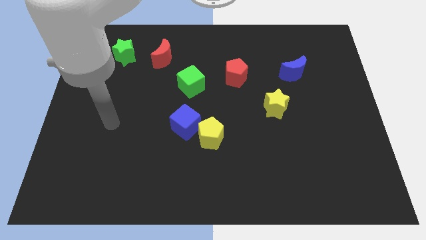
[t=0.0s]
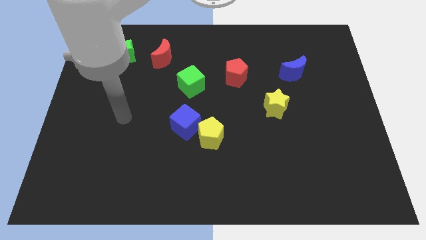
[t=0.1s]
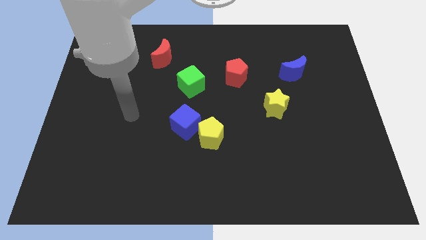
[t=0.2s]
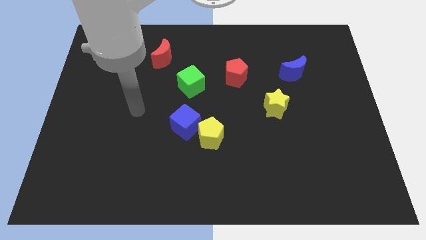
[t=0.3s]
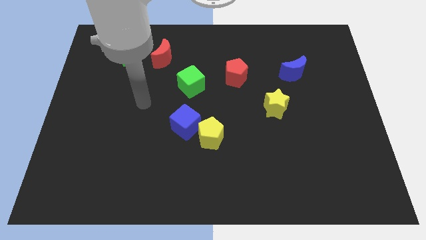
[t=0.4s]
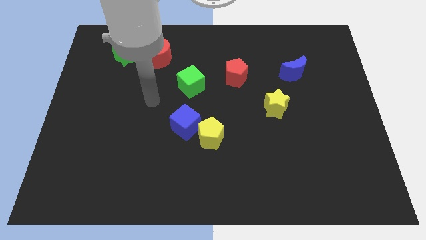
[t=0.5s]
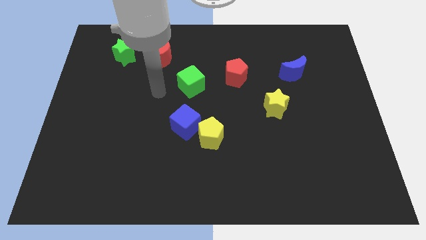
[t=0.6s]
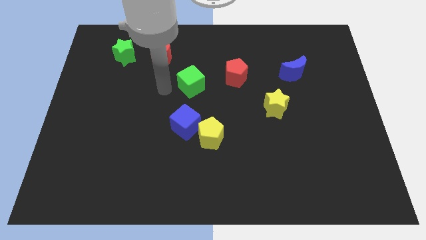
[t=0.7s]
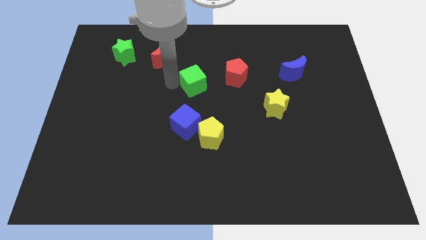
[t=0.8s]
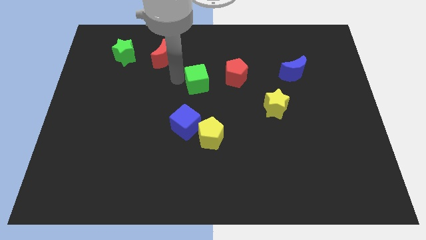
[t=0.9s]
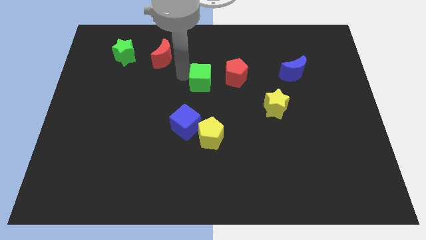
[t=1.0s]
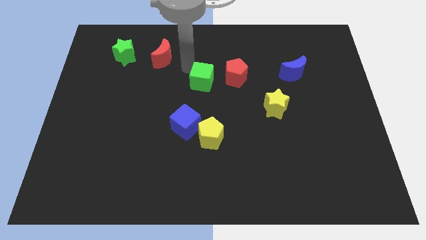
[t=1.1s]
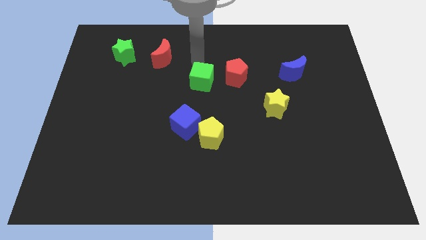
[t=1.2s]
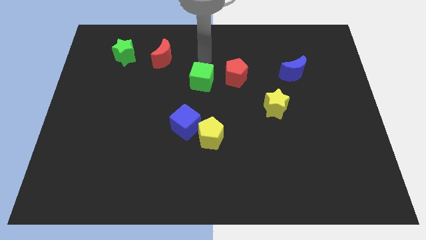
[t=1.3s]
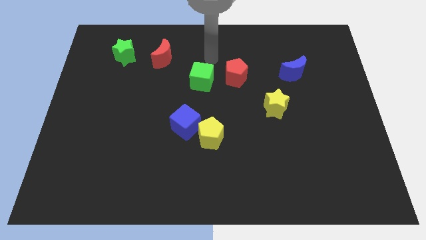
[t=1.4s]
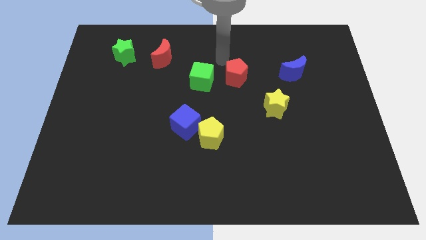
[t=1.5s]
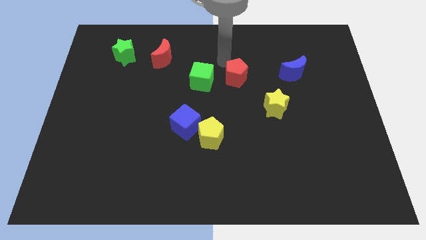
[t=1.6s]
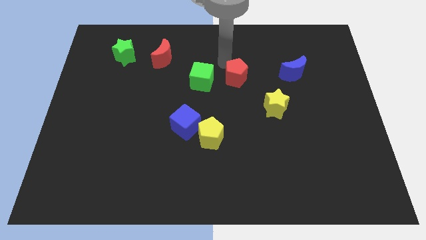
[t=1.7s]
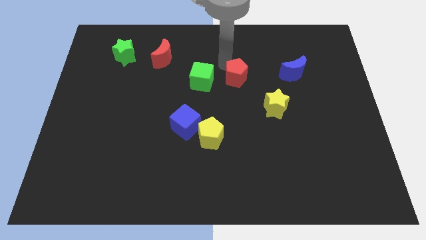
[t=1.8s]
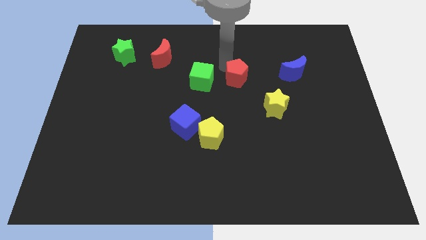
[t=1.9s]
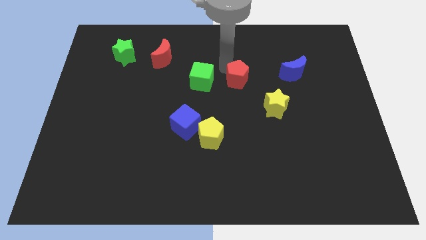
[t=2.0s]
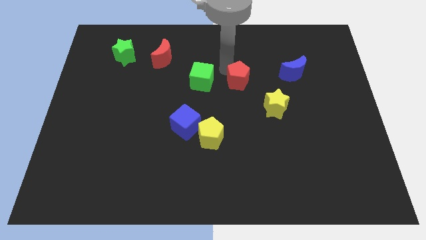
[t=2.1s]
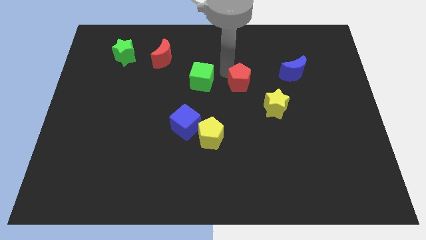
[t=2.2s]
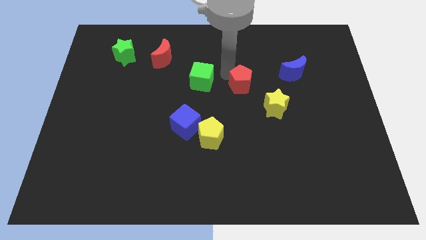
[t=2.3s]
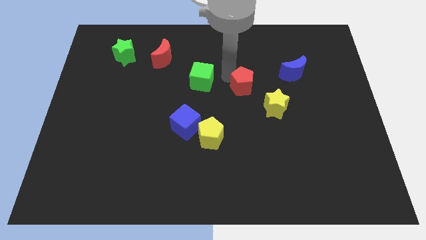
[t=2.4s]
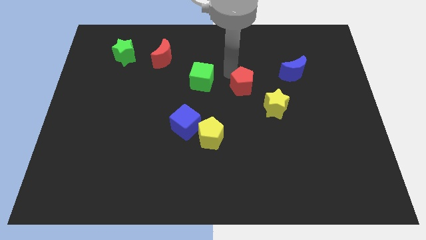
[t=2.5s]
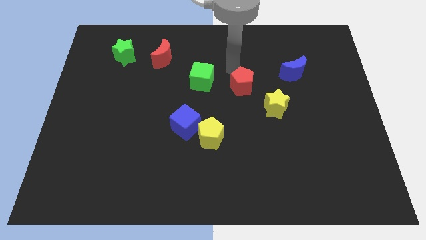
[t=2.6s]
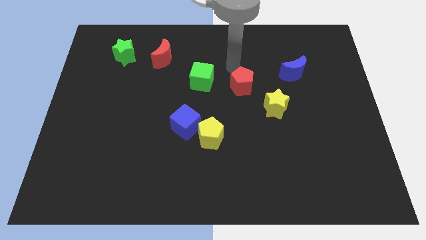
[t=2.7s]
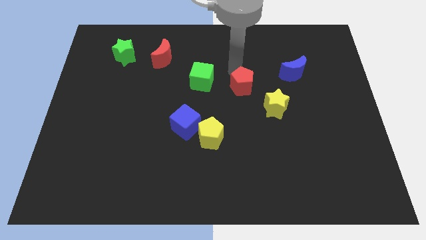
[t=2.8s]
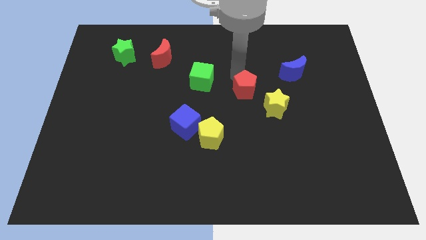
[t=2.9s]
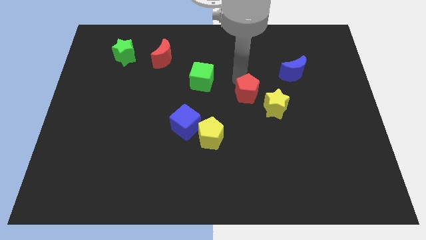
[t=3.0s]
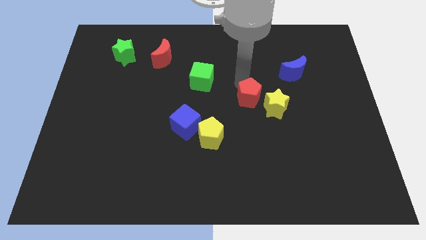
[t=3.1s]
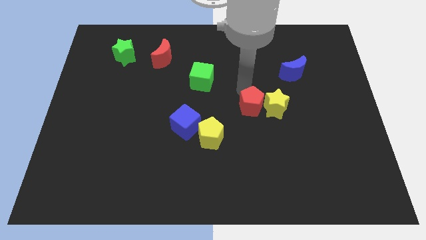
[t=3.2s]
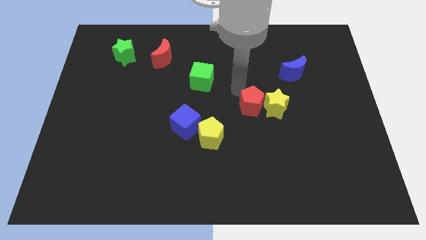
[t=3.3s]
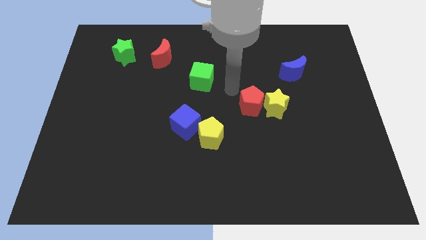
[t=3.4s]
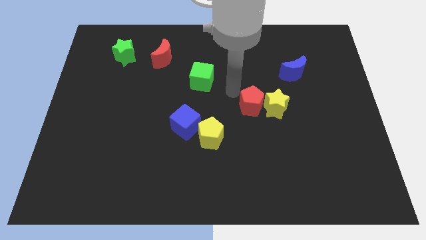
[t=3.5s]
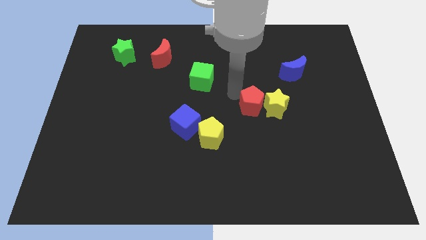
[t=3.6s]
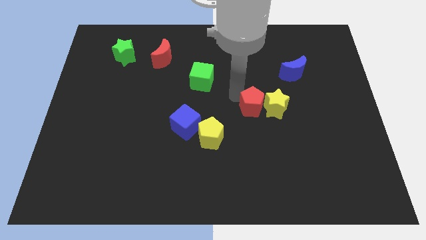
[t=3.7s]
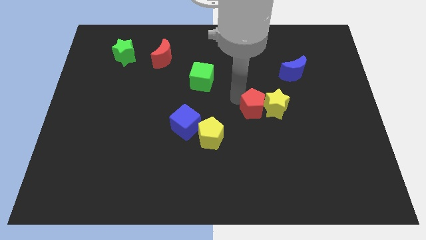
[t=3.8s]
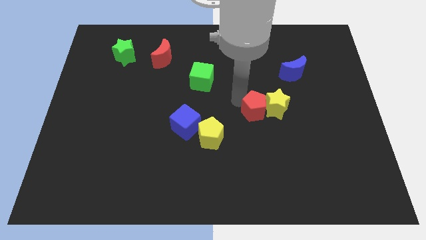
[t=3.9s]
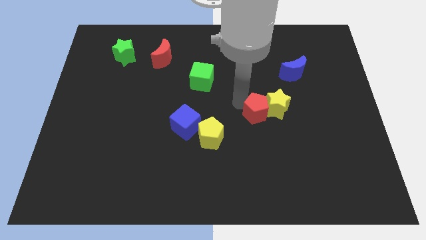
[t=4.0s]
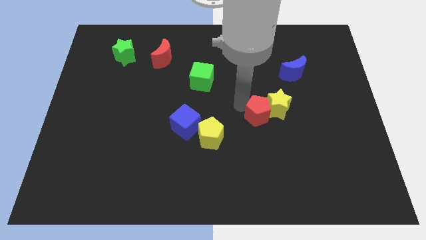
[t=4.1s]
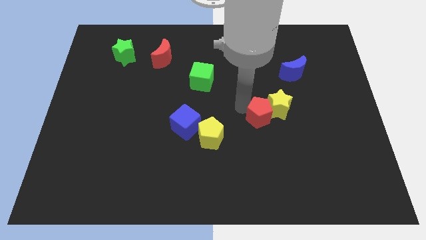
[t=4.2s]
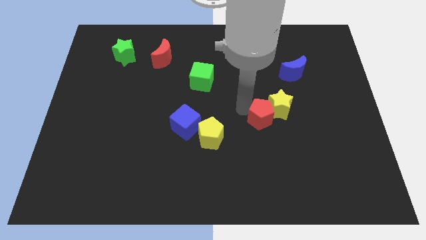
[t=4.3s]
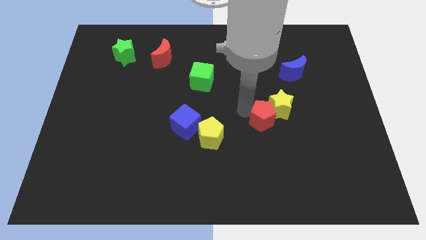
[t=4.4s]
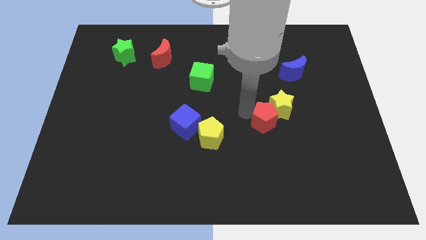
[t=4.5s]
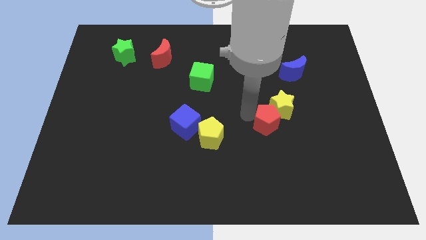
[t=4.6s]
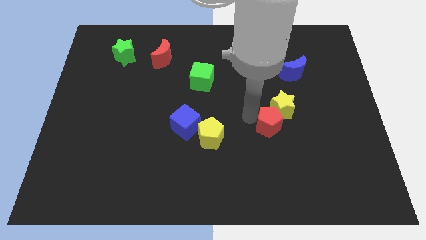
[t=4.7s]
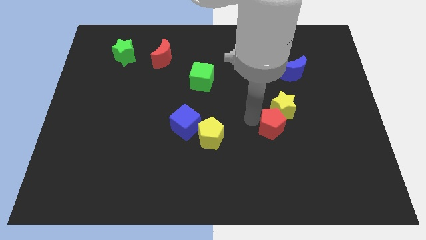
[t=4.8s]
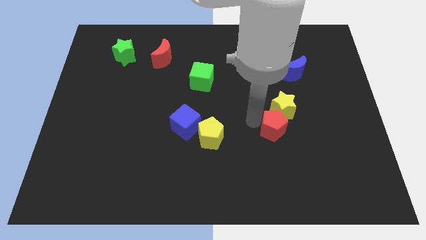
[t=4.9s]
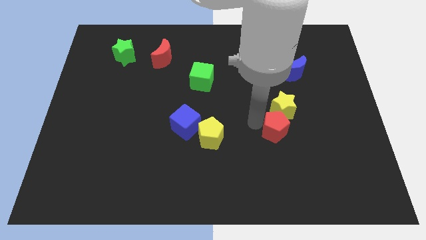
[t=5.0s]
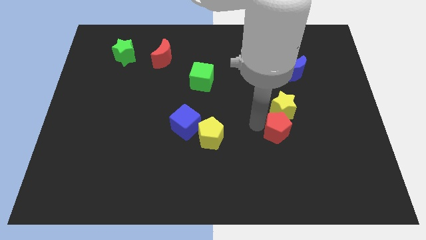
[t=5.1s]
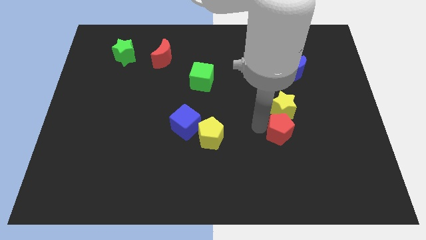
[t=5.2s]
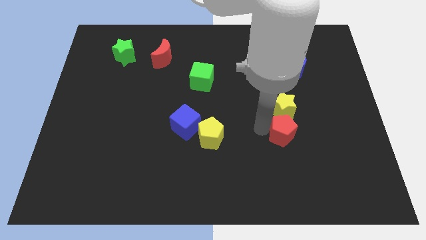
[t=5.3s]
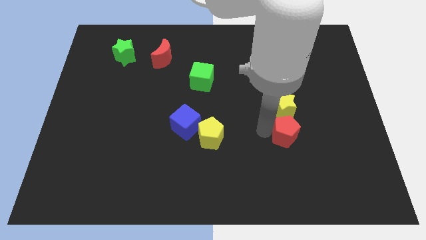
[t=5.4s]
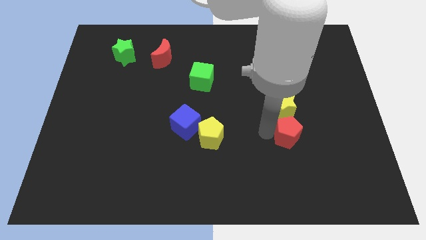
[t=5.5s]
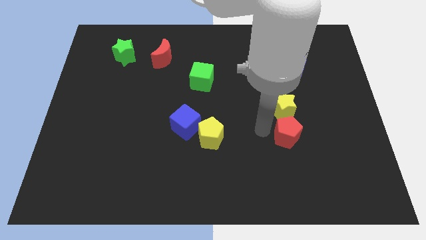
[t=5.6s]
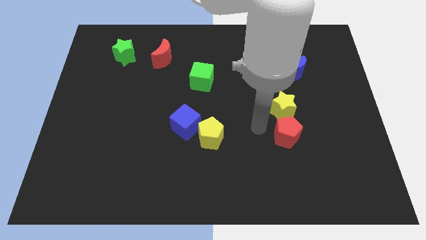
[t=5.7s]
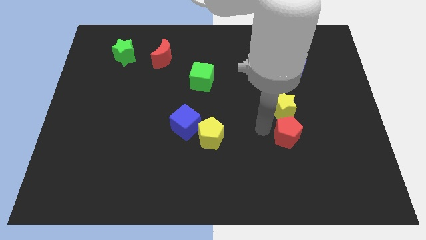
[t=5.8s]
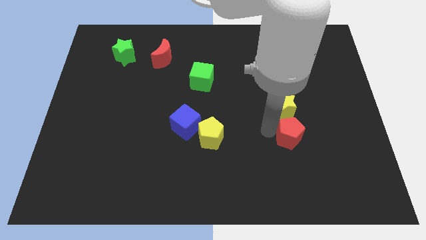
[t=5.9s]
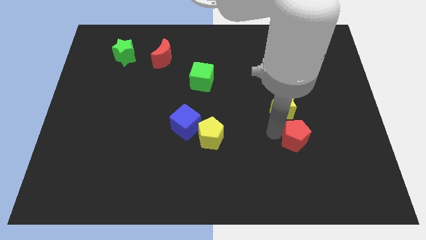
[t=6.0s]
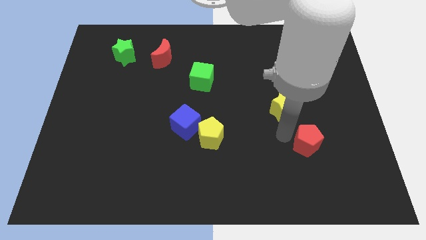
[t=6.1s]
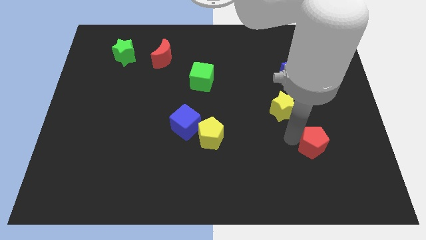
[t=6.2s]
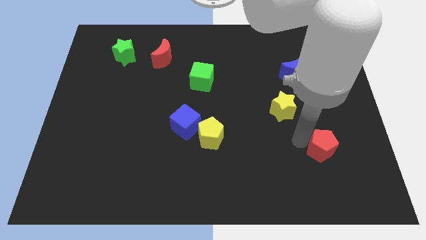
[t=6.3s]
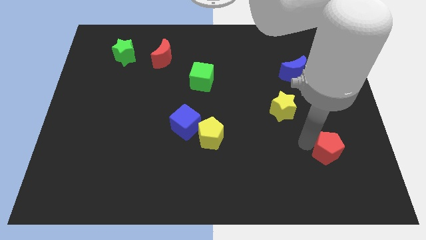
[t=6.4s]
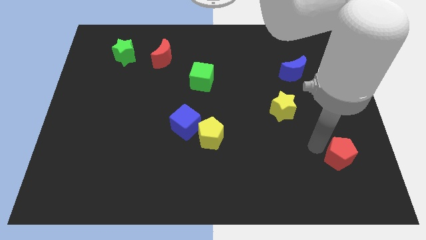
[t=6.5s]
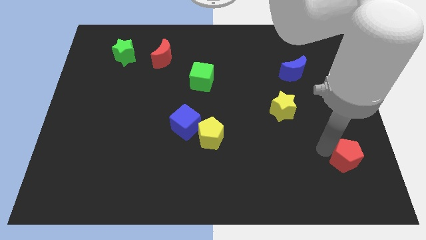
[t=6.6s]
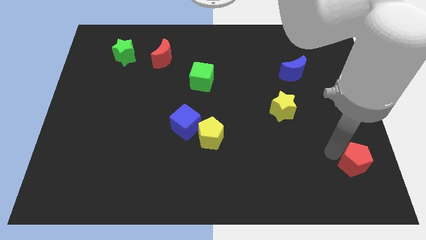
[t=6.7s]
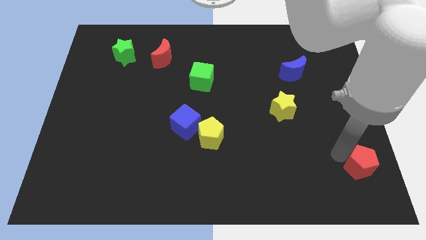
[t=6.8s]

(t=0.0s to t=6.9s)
put the red pentagon to the bottom right
